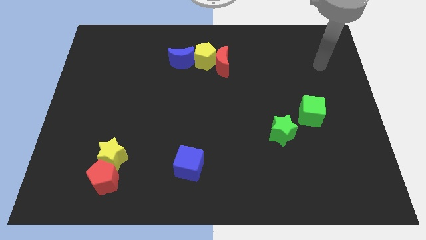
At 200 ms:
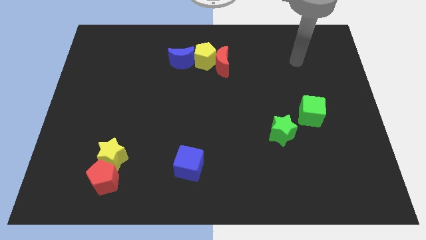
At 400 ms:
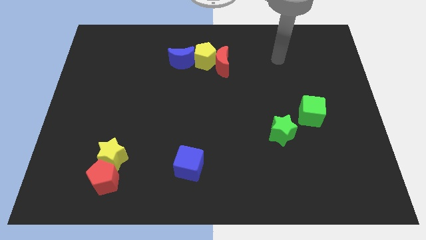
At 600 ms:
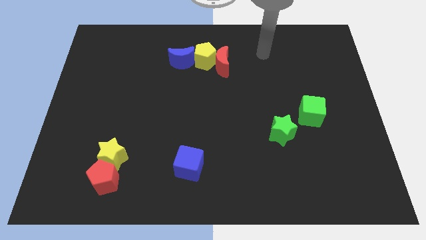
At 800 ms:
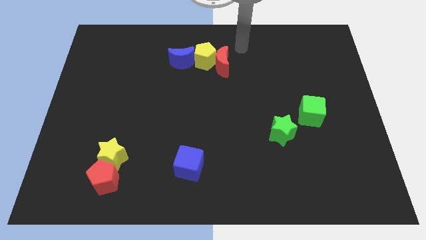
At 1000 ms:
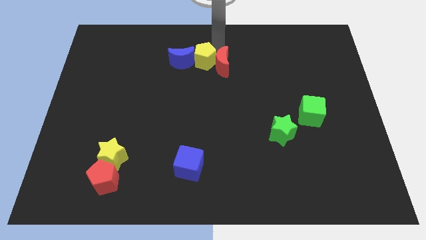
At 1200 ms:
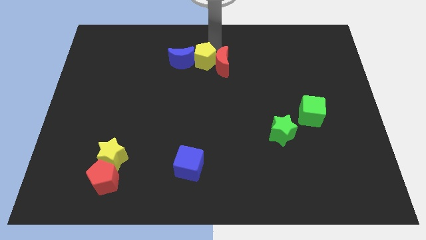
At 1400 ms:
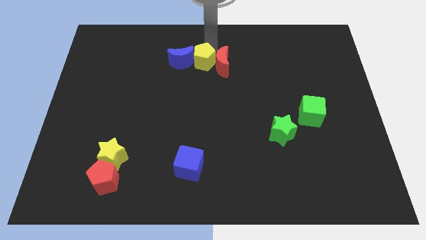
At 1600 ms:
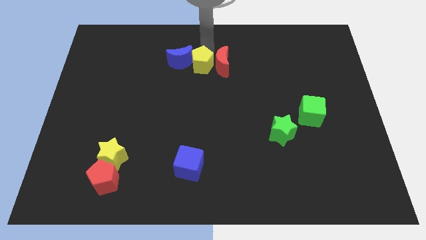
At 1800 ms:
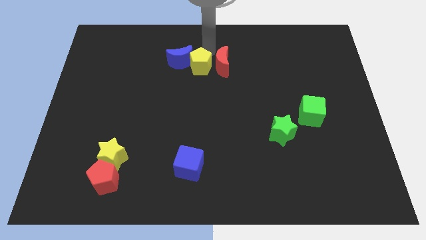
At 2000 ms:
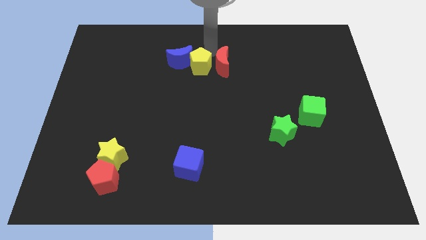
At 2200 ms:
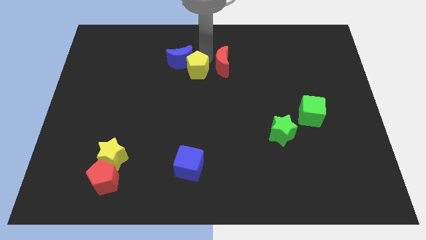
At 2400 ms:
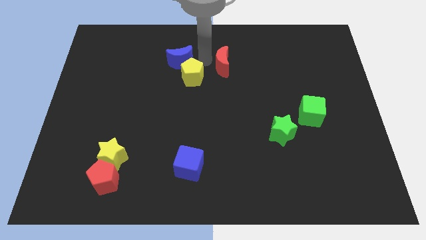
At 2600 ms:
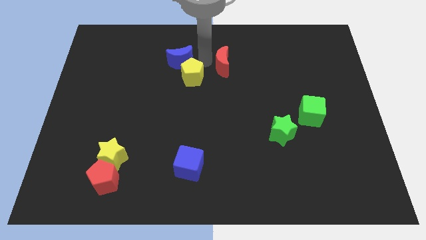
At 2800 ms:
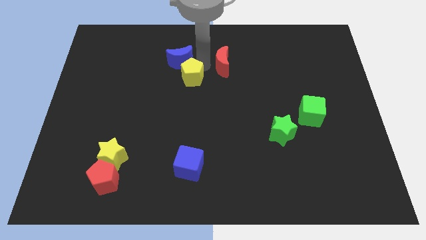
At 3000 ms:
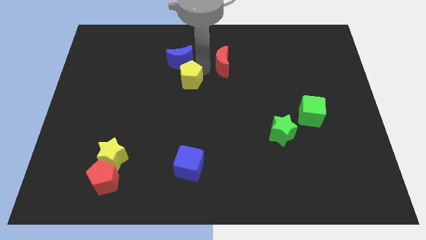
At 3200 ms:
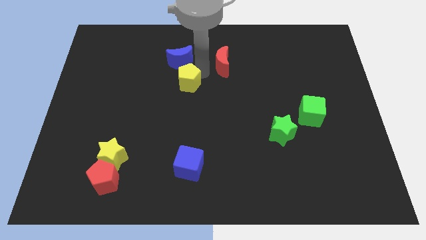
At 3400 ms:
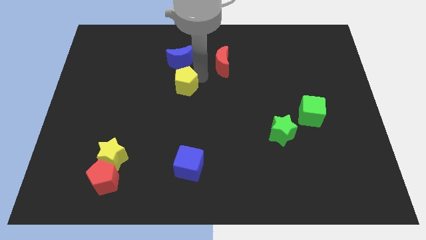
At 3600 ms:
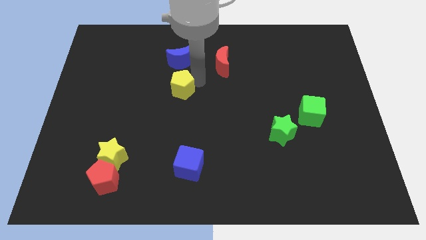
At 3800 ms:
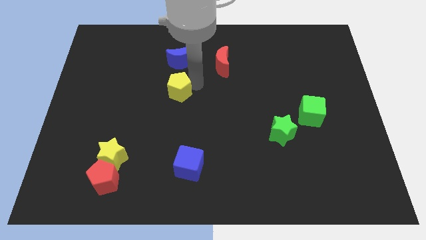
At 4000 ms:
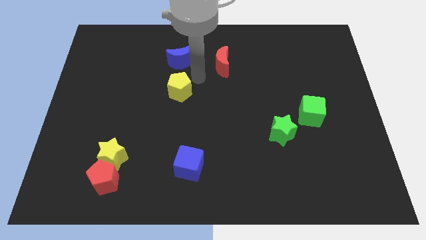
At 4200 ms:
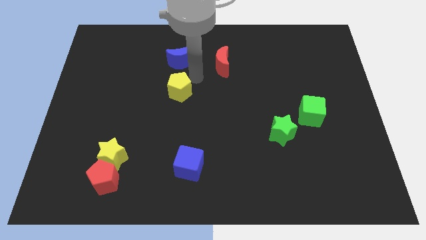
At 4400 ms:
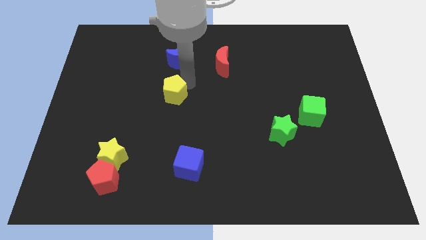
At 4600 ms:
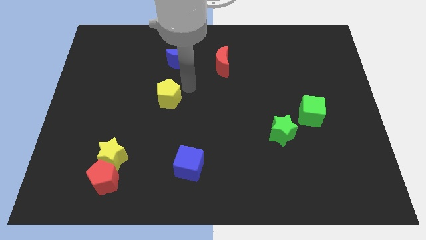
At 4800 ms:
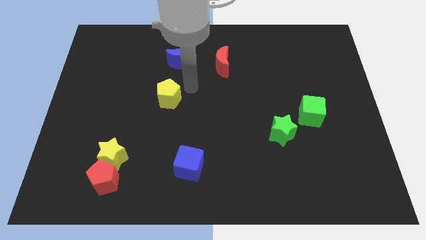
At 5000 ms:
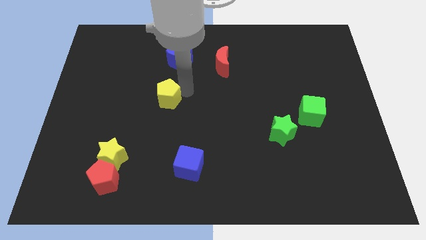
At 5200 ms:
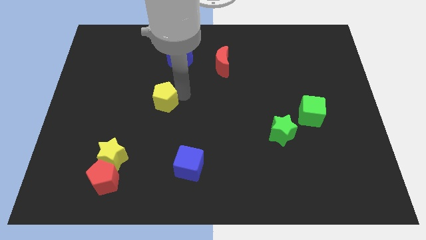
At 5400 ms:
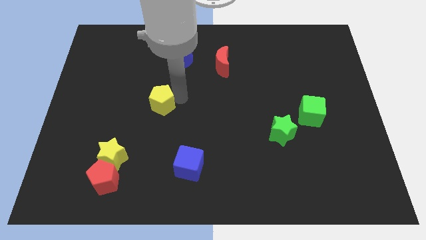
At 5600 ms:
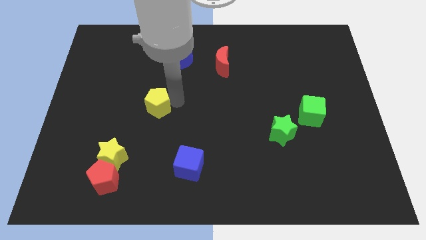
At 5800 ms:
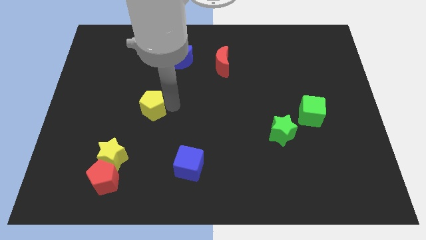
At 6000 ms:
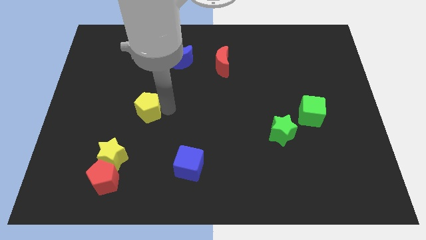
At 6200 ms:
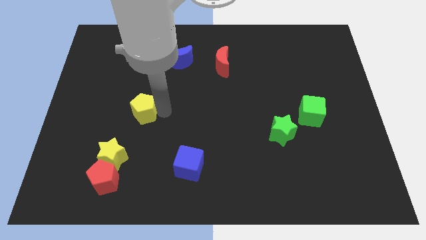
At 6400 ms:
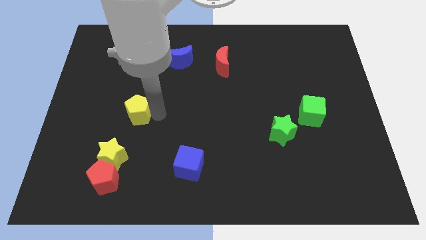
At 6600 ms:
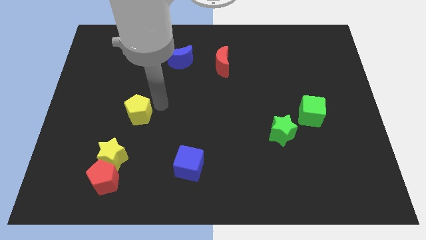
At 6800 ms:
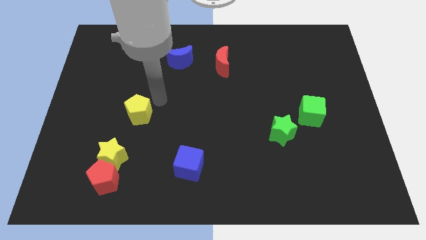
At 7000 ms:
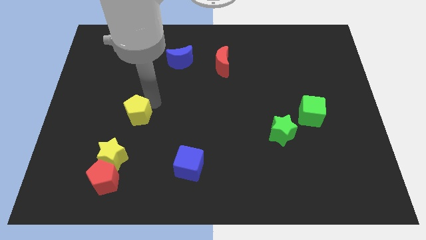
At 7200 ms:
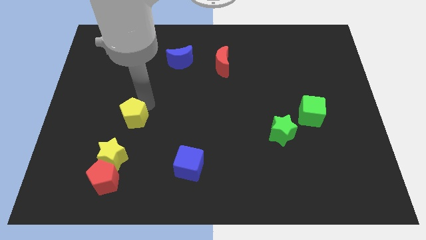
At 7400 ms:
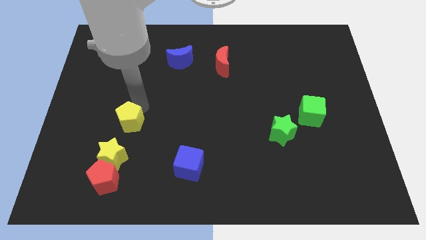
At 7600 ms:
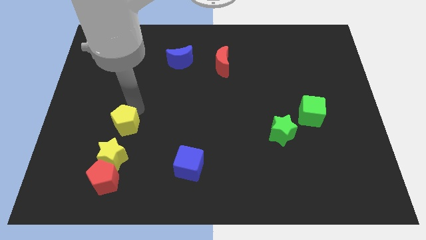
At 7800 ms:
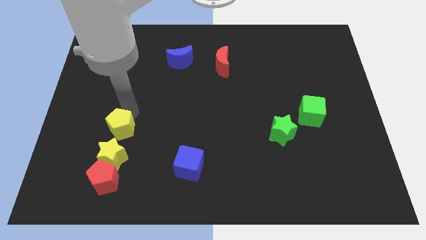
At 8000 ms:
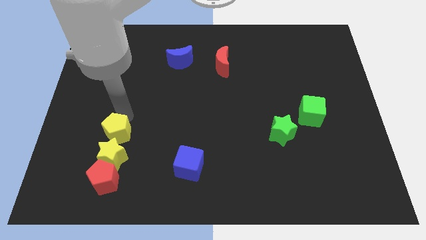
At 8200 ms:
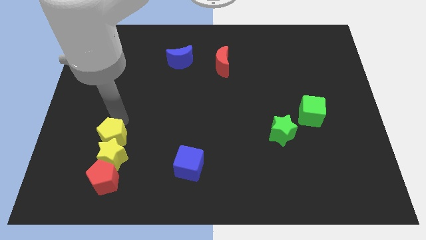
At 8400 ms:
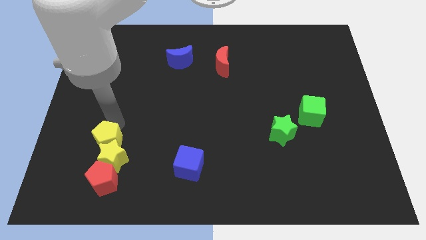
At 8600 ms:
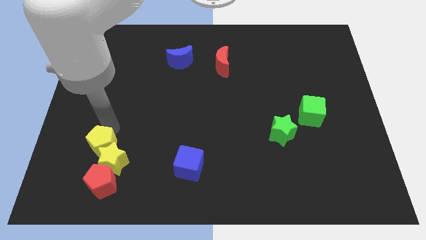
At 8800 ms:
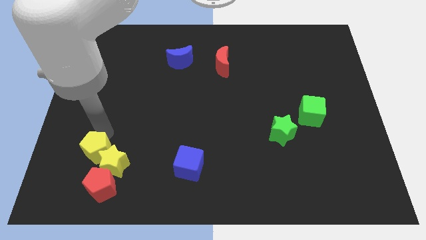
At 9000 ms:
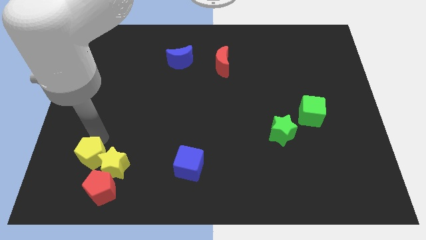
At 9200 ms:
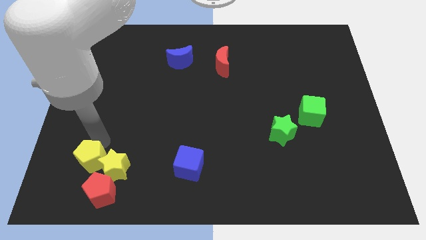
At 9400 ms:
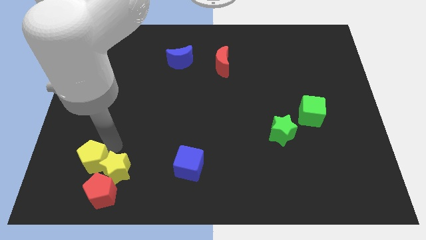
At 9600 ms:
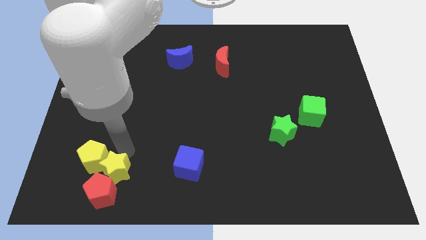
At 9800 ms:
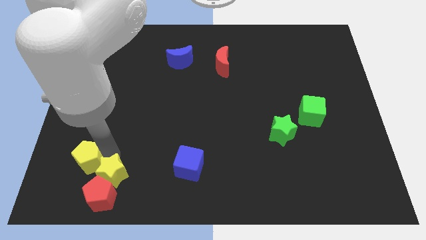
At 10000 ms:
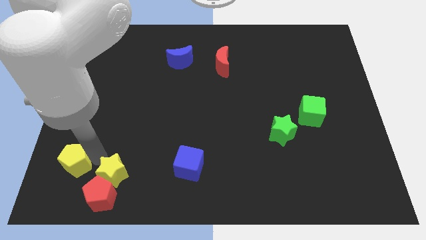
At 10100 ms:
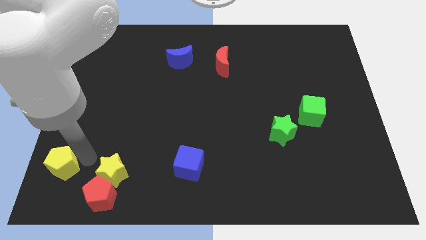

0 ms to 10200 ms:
push the yellow pentagon to the lower left corner

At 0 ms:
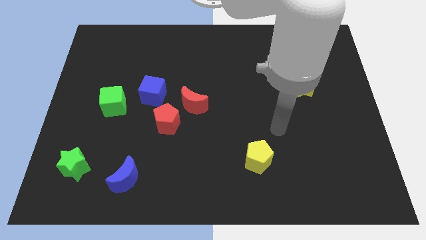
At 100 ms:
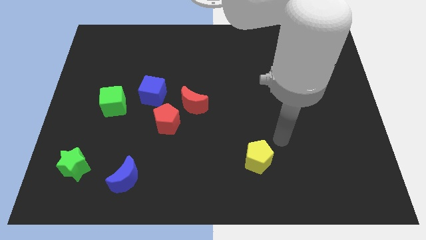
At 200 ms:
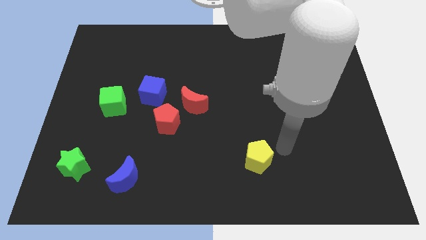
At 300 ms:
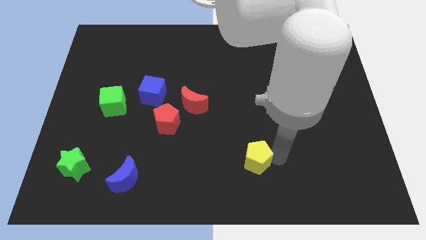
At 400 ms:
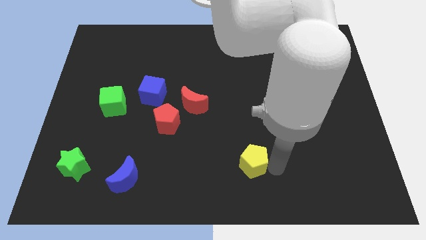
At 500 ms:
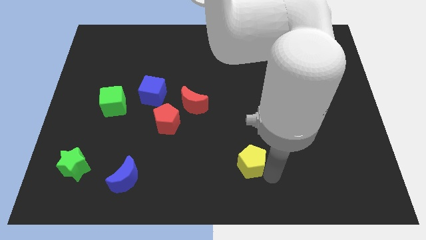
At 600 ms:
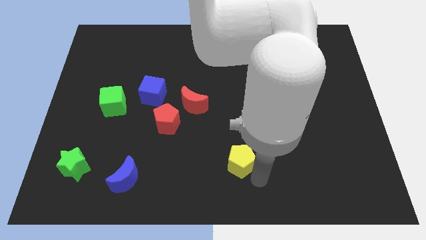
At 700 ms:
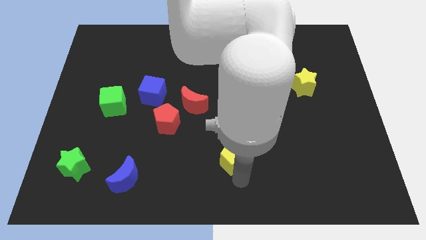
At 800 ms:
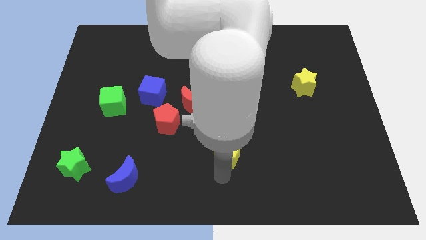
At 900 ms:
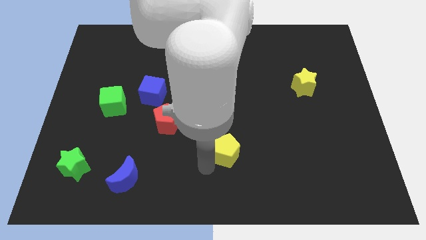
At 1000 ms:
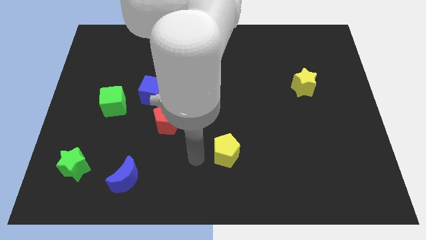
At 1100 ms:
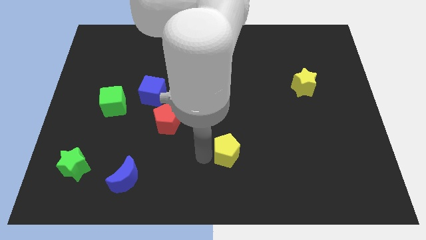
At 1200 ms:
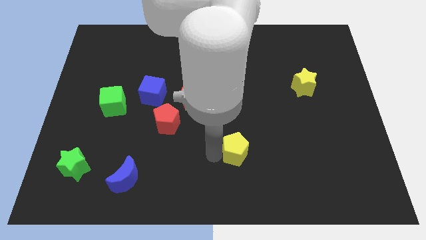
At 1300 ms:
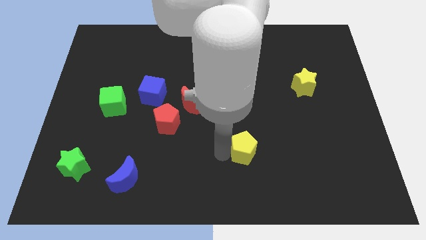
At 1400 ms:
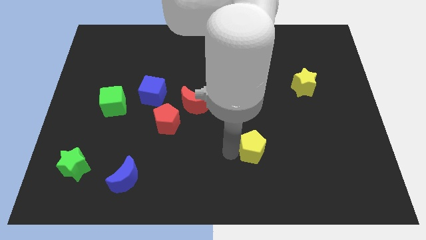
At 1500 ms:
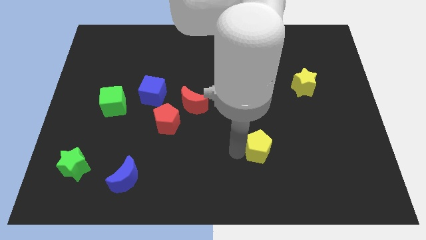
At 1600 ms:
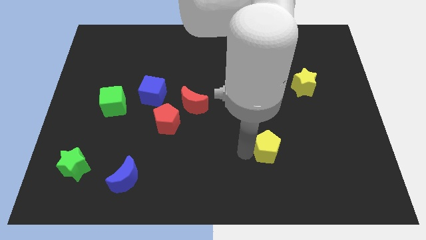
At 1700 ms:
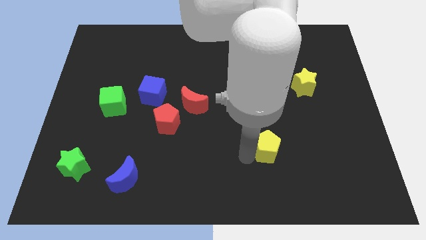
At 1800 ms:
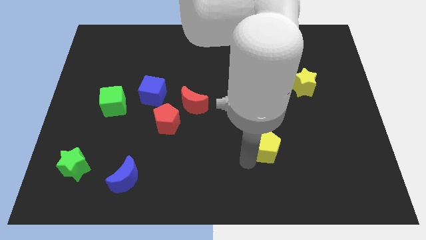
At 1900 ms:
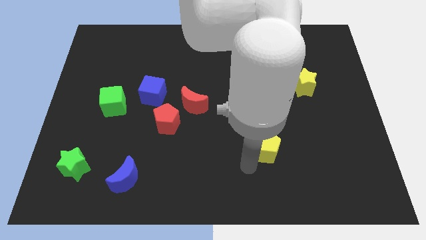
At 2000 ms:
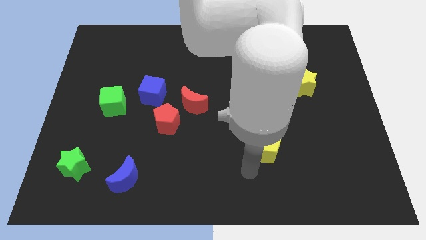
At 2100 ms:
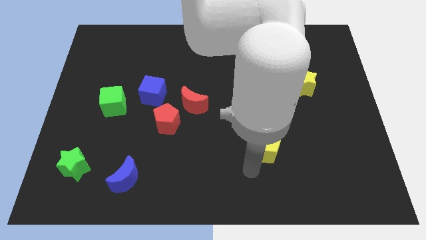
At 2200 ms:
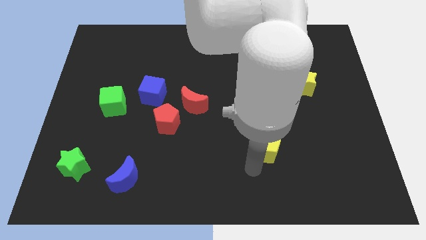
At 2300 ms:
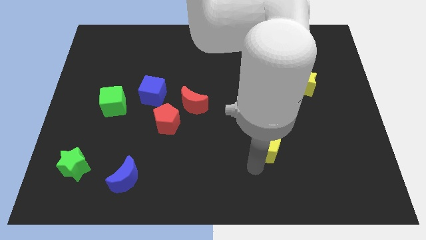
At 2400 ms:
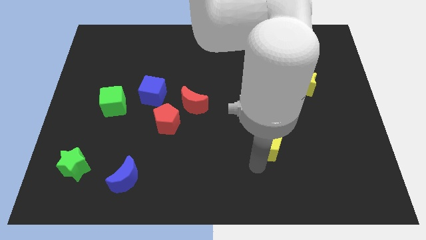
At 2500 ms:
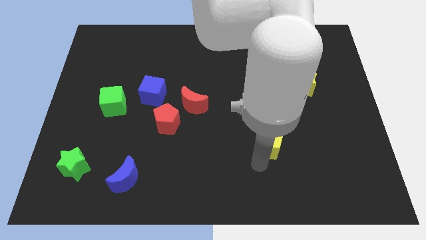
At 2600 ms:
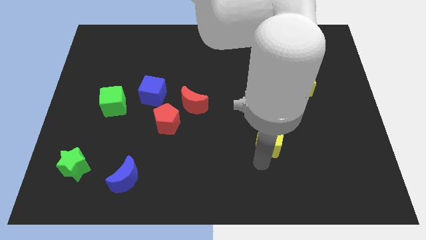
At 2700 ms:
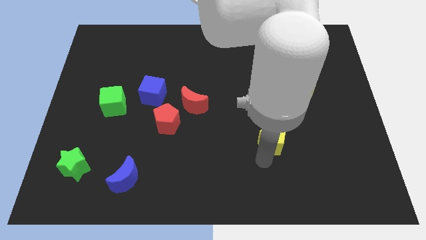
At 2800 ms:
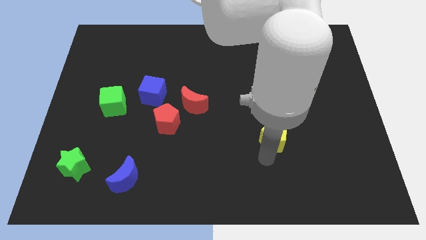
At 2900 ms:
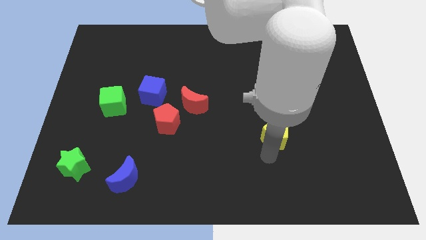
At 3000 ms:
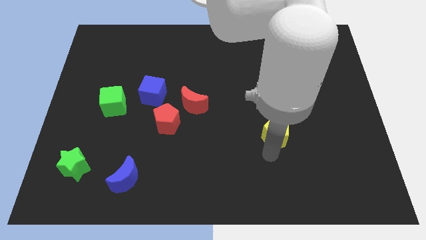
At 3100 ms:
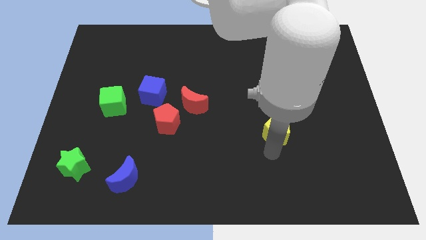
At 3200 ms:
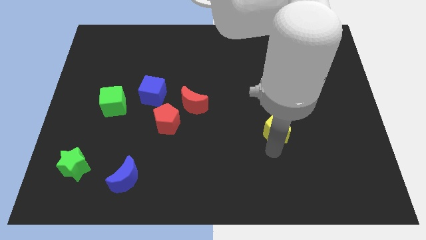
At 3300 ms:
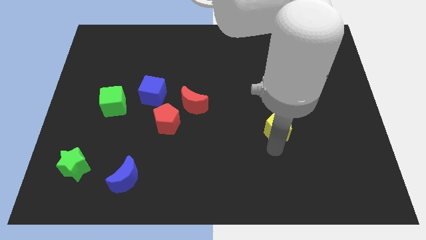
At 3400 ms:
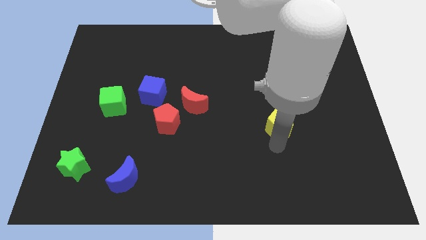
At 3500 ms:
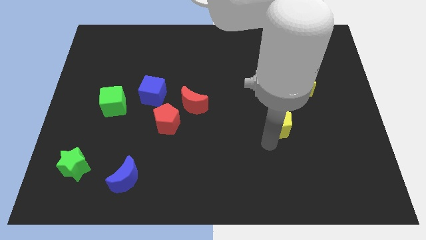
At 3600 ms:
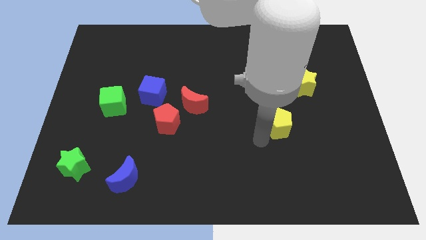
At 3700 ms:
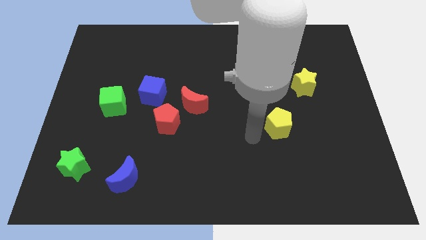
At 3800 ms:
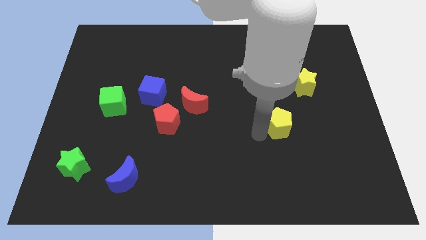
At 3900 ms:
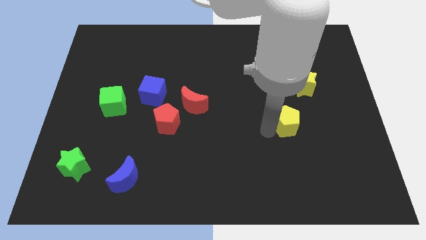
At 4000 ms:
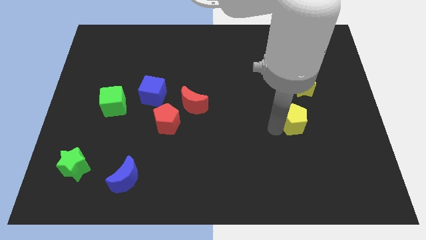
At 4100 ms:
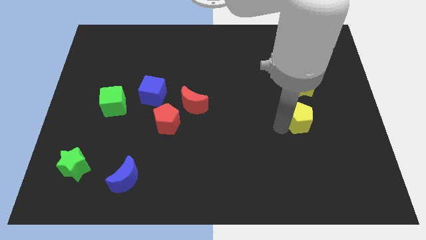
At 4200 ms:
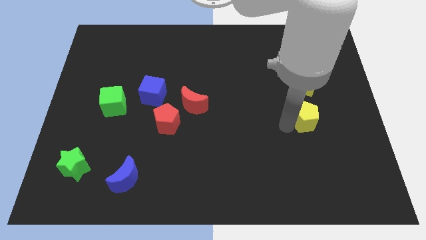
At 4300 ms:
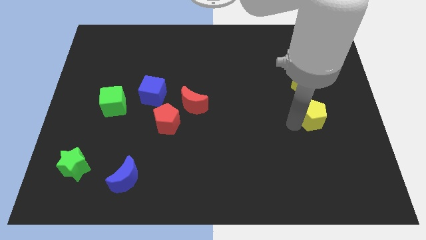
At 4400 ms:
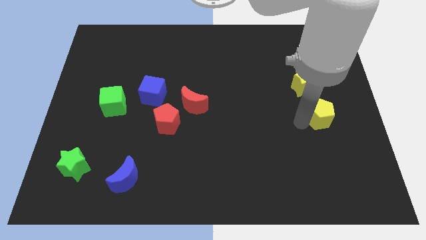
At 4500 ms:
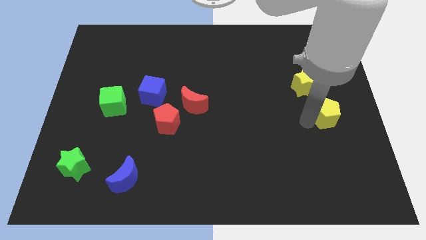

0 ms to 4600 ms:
move the yellow pentagon to the center right
